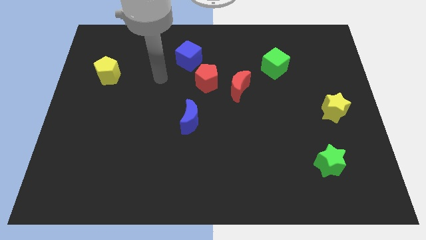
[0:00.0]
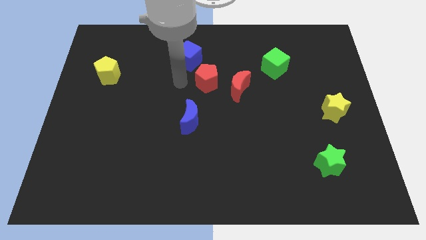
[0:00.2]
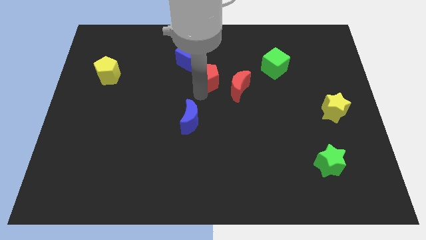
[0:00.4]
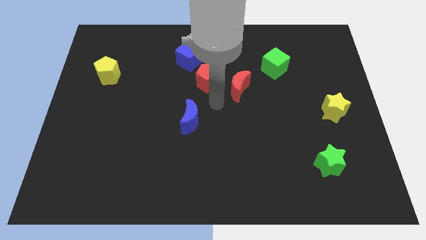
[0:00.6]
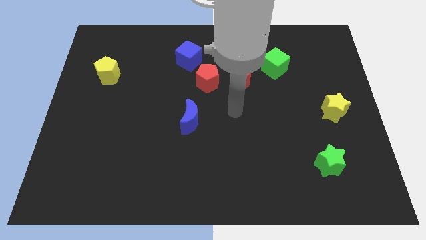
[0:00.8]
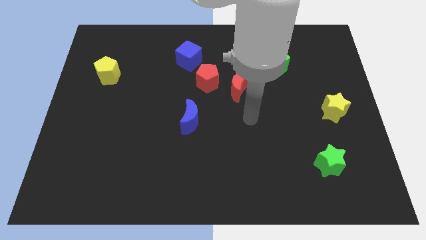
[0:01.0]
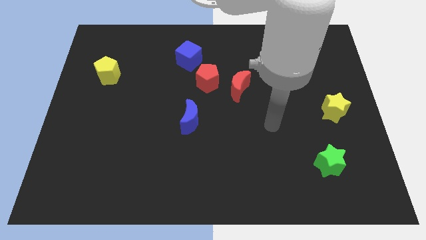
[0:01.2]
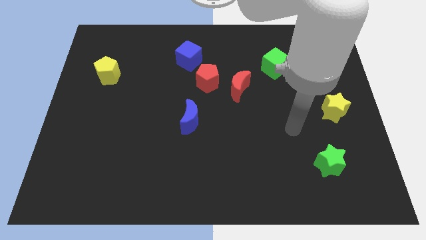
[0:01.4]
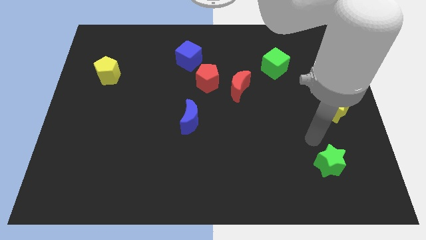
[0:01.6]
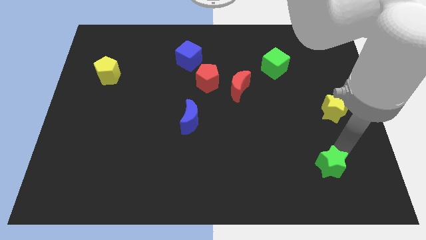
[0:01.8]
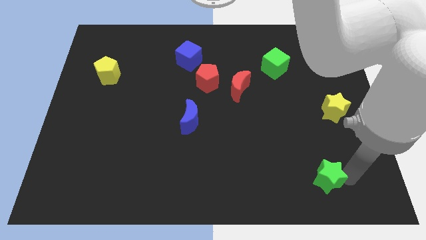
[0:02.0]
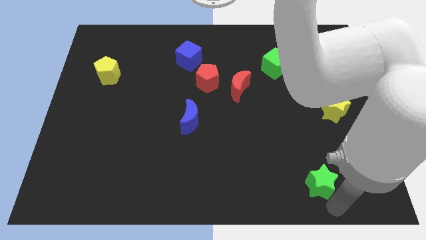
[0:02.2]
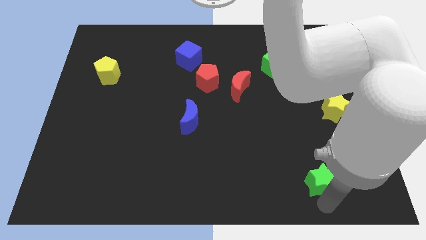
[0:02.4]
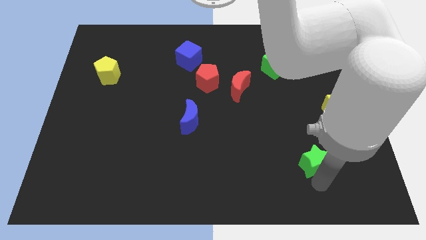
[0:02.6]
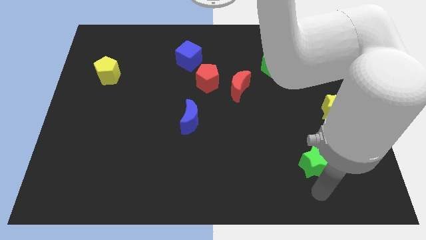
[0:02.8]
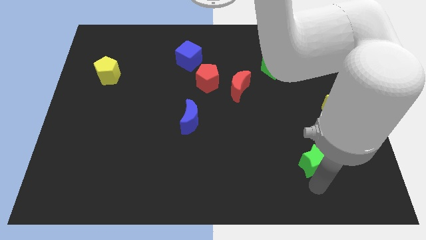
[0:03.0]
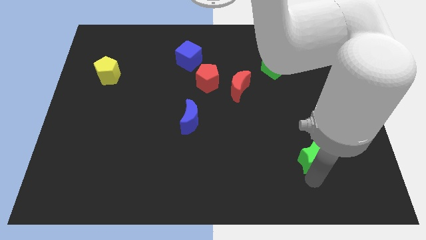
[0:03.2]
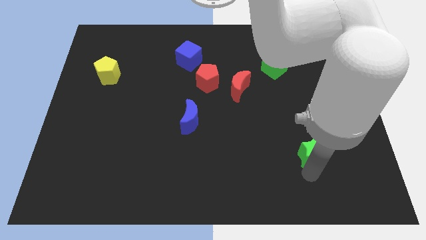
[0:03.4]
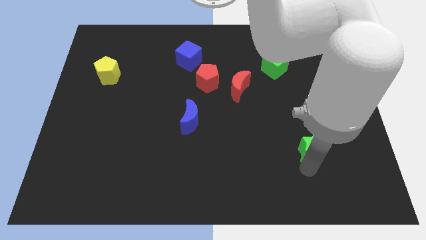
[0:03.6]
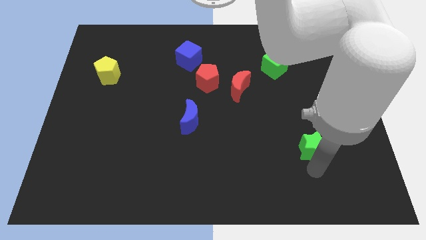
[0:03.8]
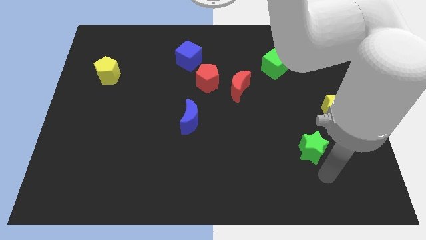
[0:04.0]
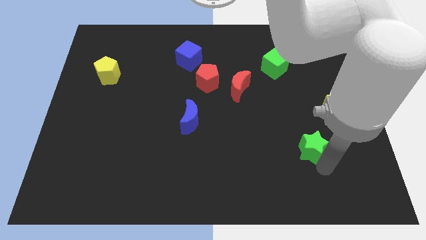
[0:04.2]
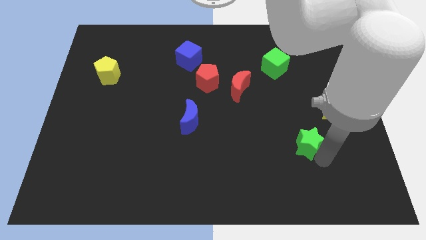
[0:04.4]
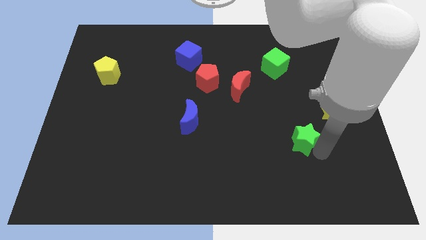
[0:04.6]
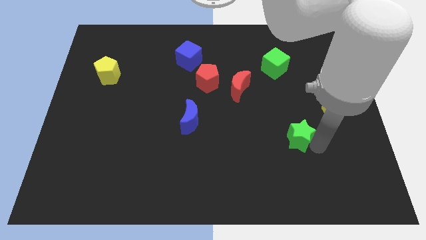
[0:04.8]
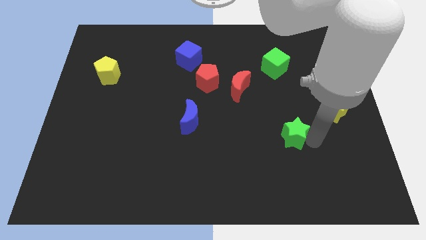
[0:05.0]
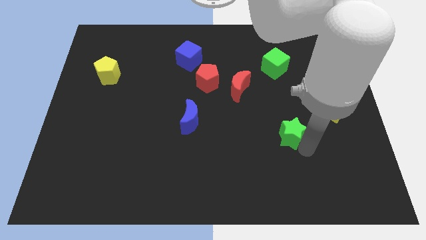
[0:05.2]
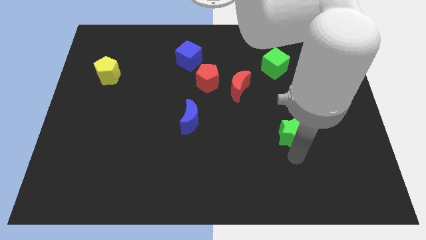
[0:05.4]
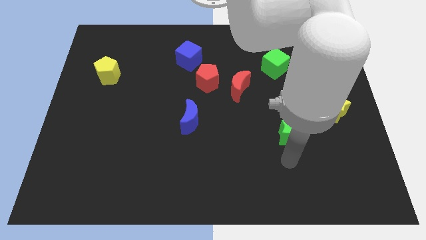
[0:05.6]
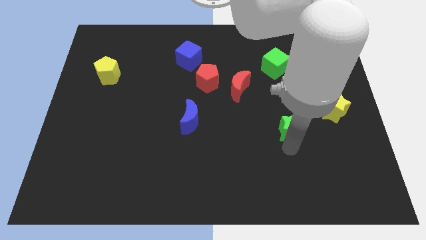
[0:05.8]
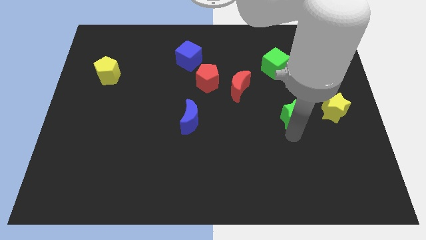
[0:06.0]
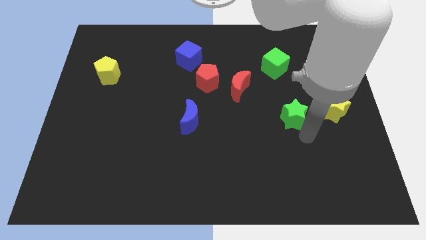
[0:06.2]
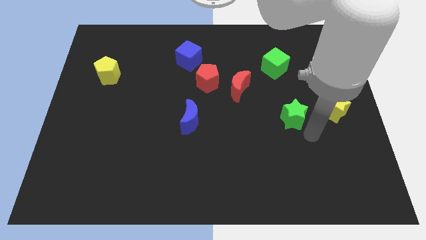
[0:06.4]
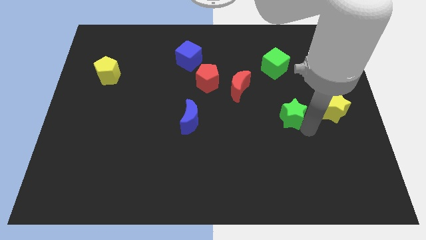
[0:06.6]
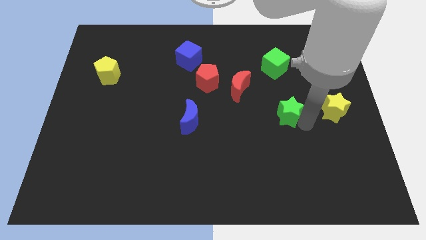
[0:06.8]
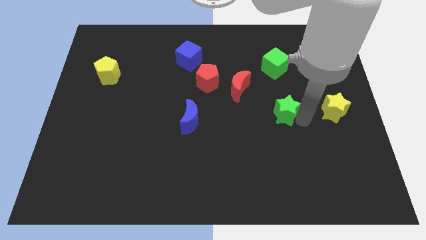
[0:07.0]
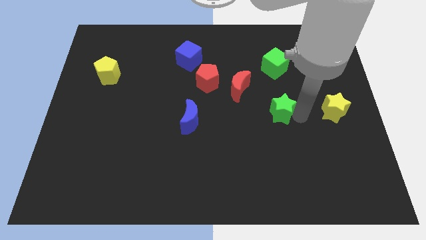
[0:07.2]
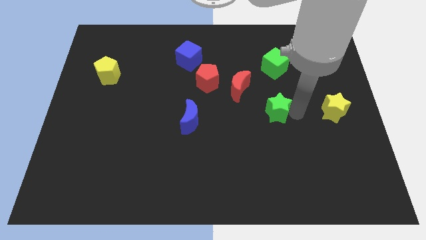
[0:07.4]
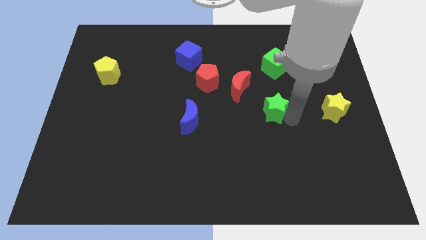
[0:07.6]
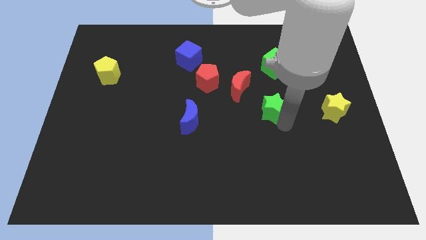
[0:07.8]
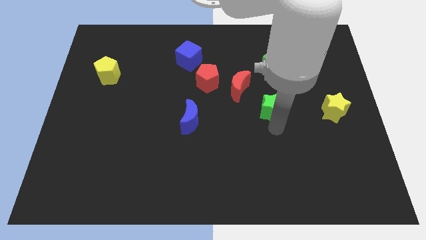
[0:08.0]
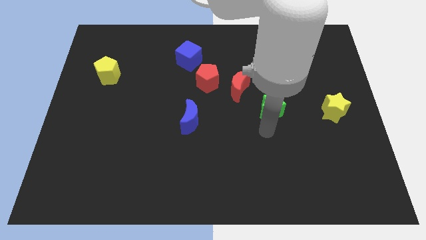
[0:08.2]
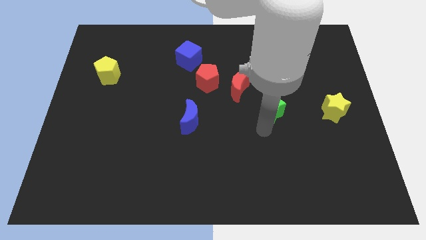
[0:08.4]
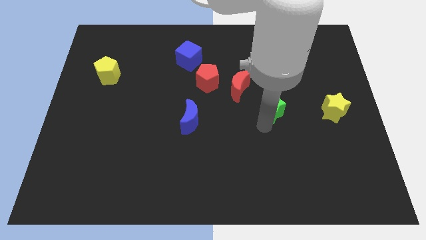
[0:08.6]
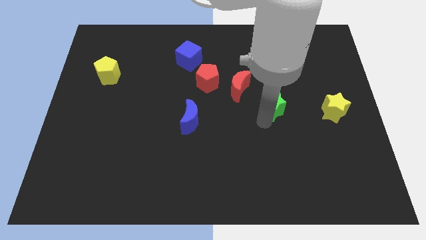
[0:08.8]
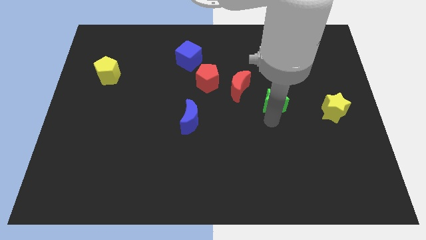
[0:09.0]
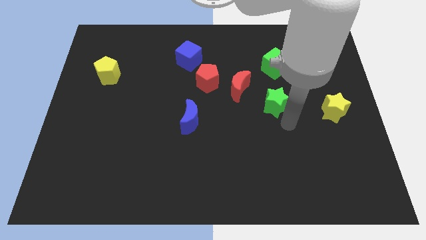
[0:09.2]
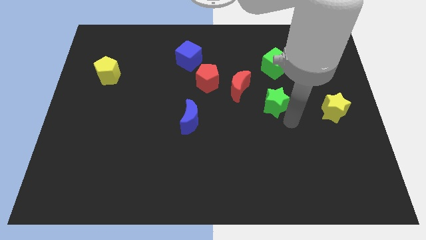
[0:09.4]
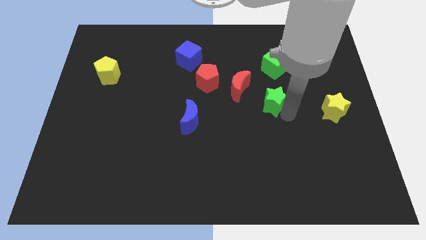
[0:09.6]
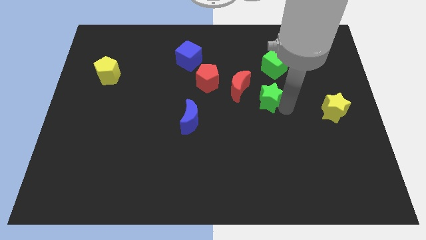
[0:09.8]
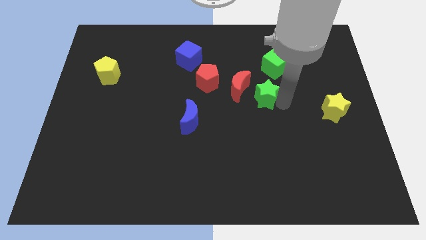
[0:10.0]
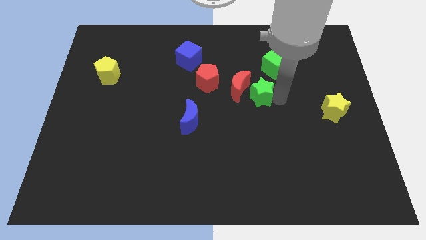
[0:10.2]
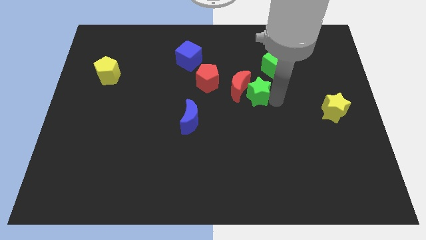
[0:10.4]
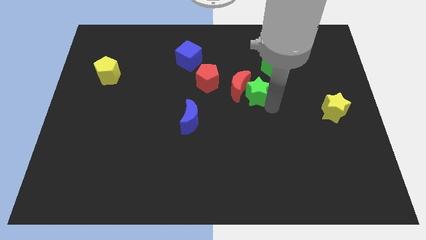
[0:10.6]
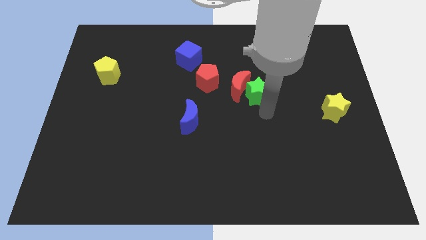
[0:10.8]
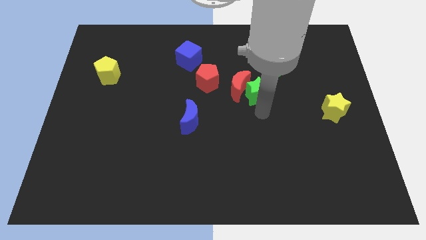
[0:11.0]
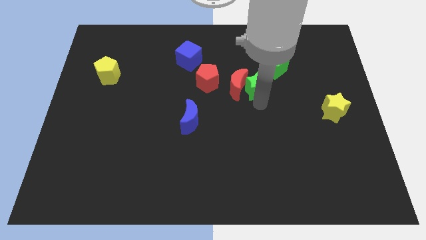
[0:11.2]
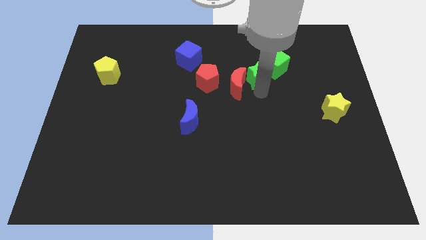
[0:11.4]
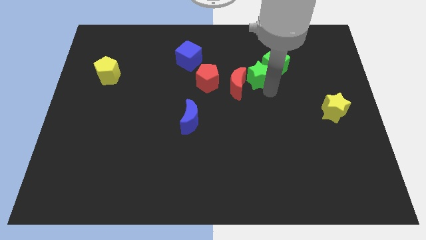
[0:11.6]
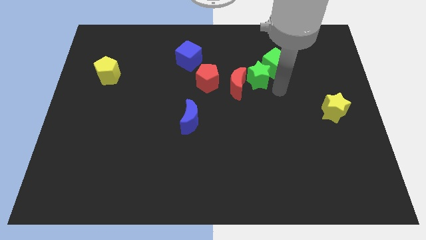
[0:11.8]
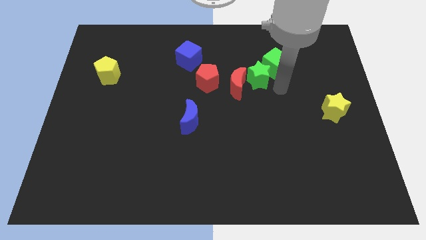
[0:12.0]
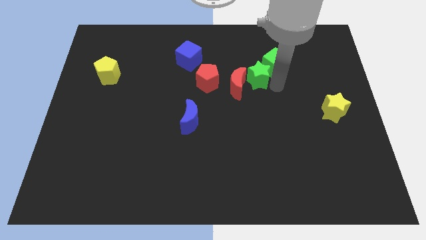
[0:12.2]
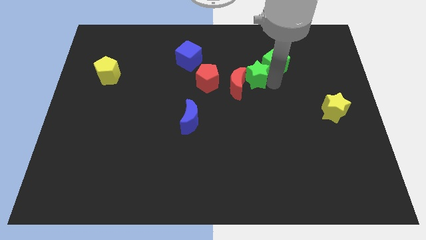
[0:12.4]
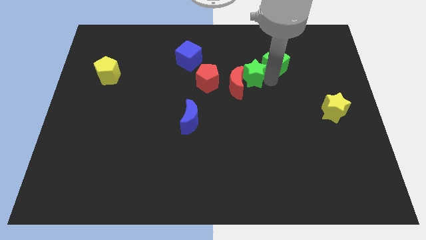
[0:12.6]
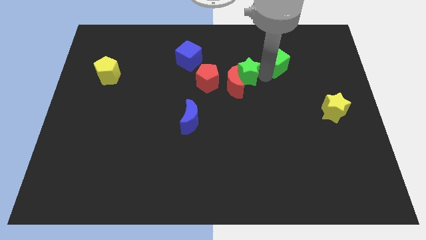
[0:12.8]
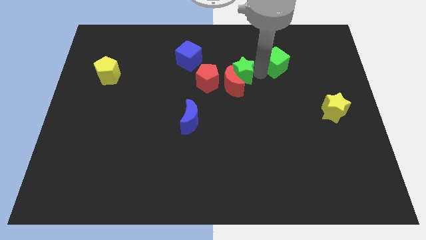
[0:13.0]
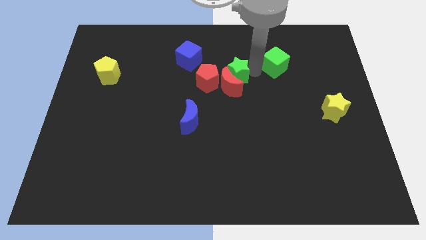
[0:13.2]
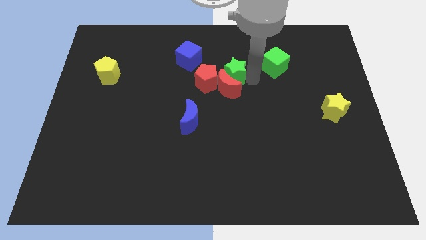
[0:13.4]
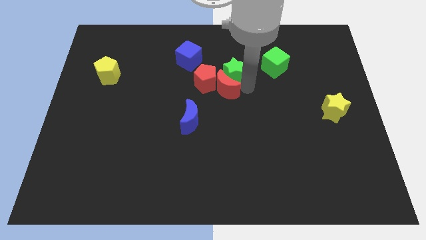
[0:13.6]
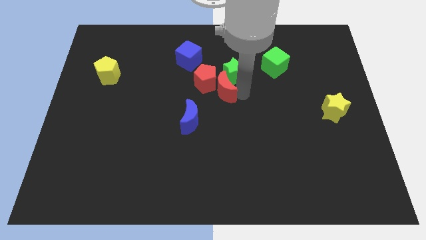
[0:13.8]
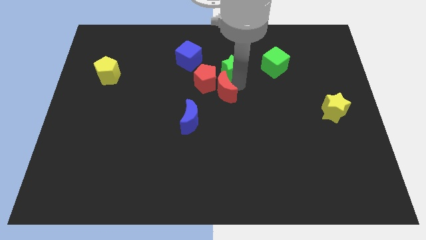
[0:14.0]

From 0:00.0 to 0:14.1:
move the green star to the right side of the blue cube
